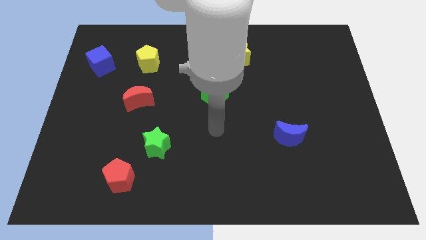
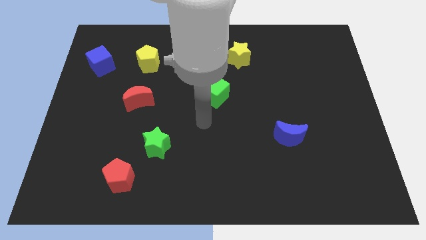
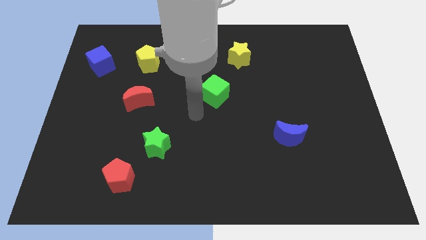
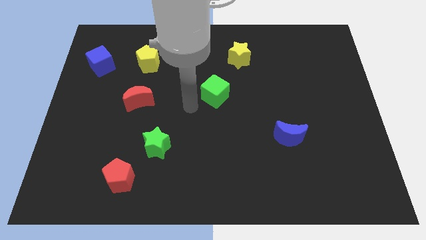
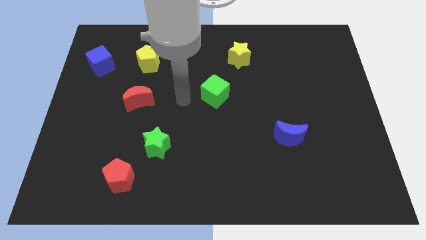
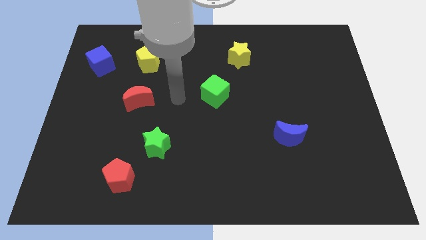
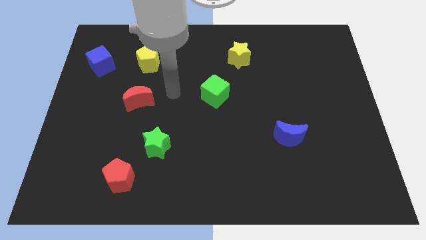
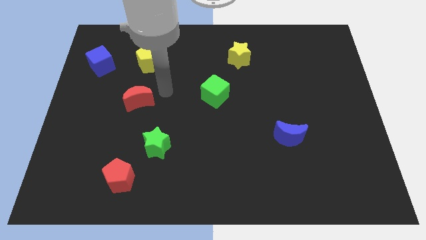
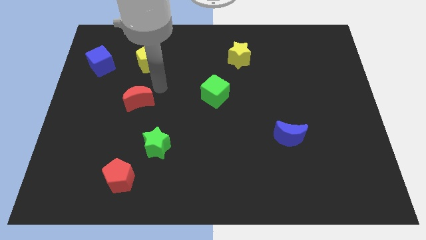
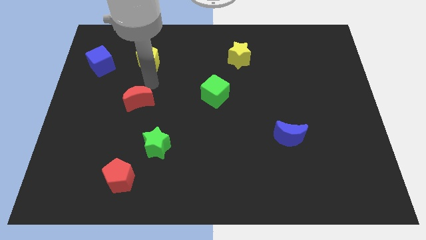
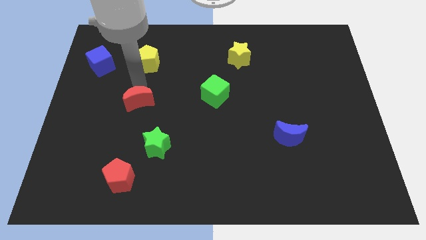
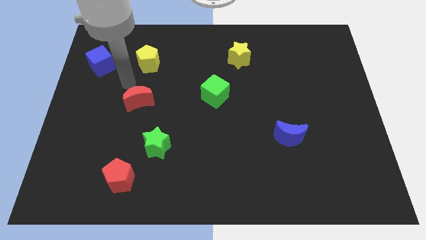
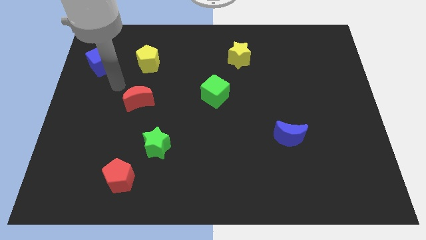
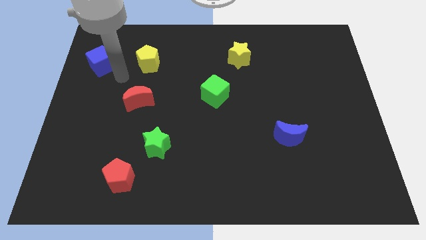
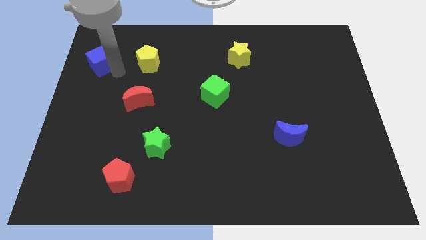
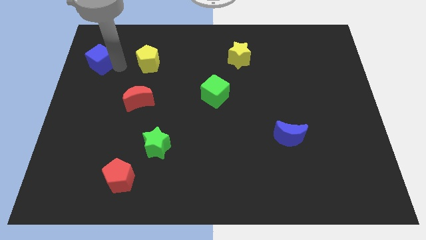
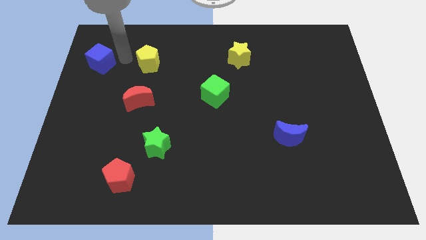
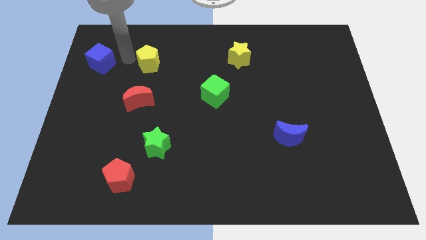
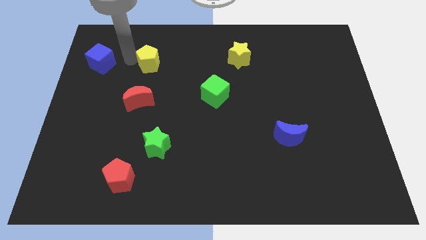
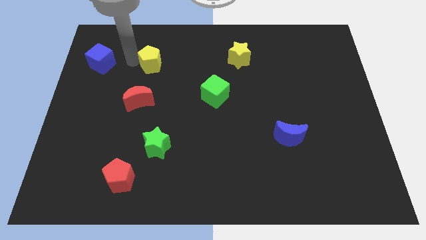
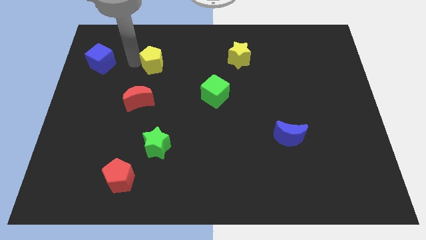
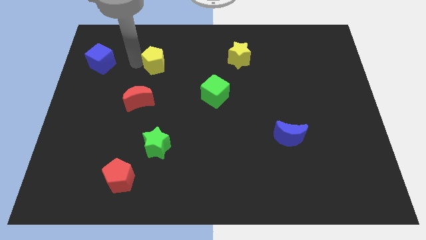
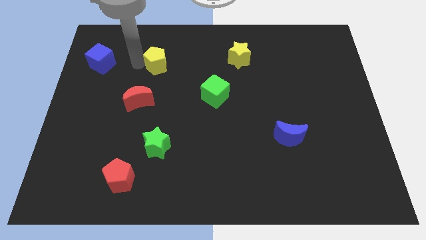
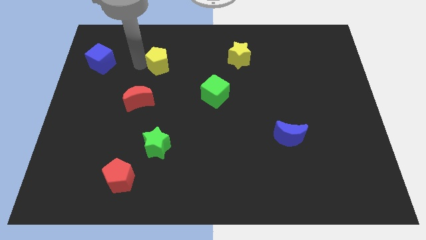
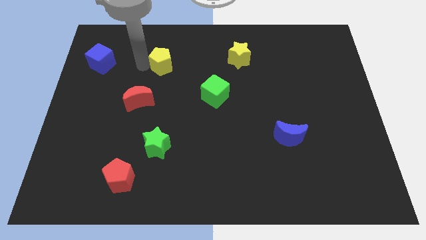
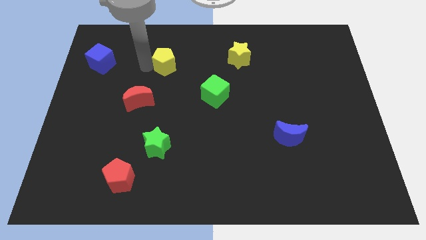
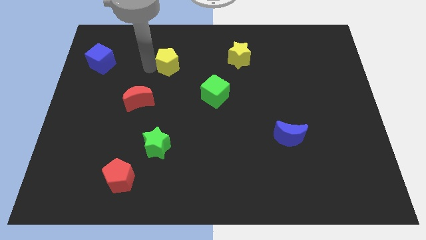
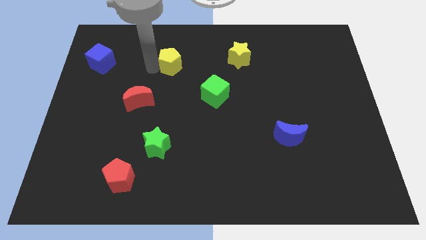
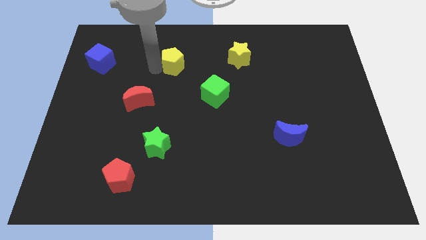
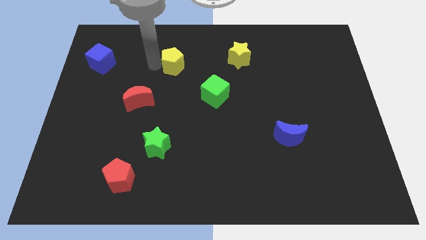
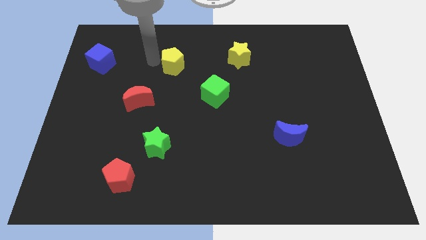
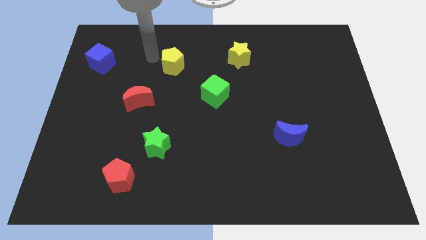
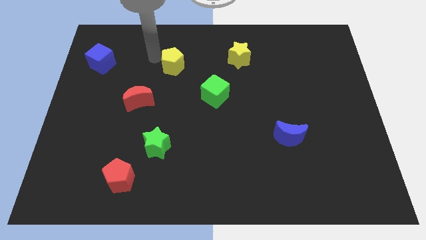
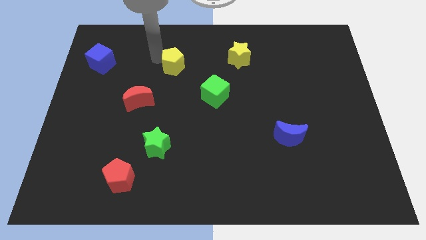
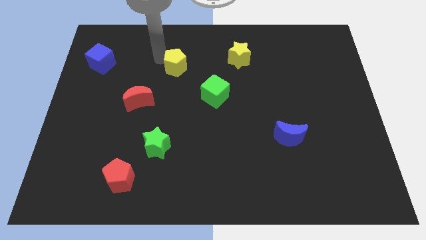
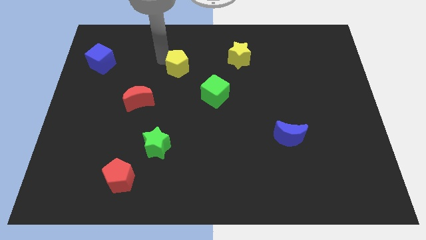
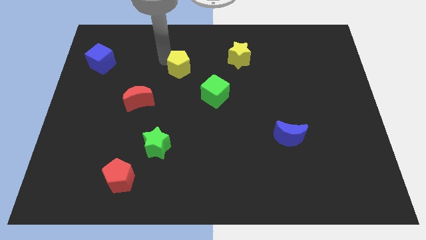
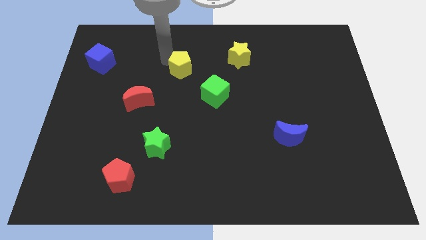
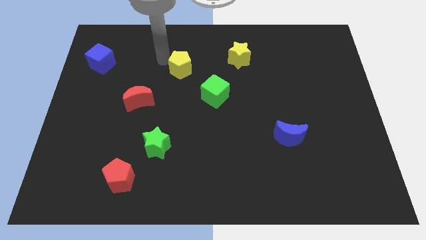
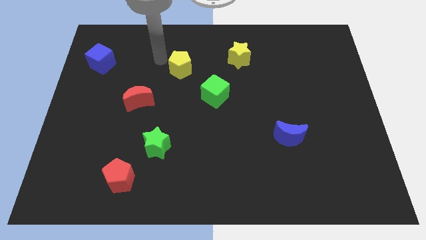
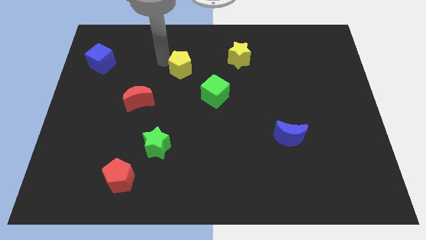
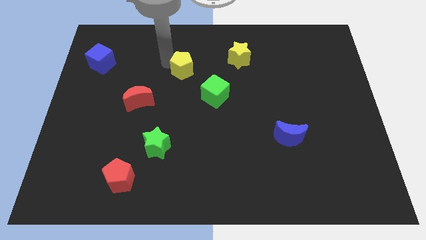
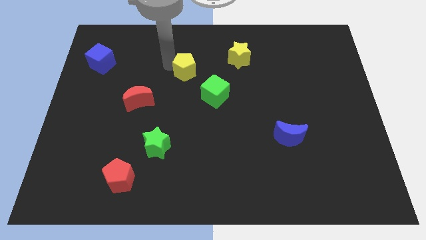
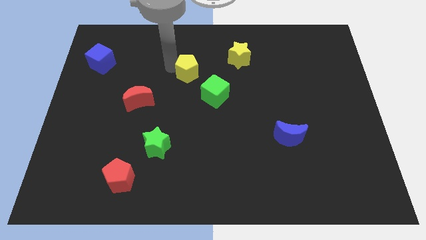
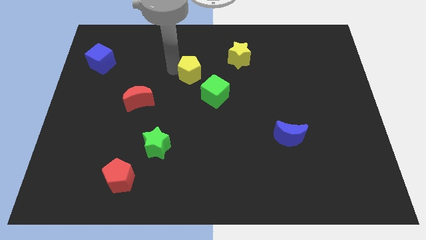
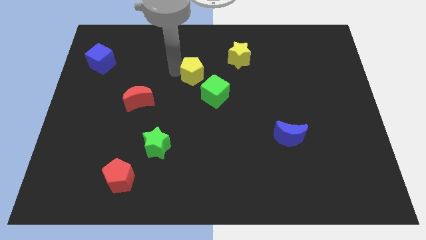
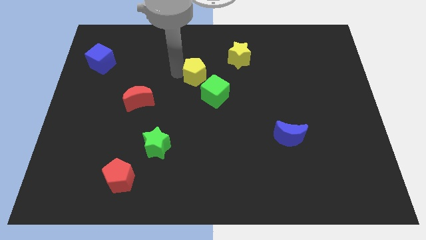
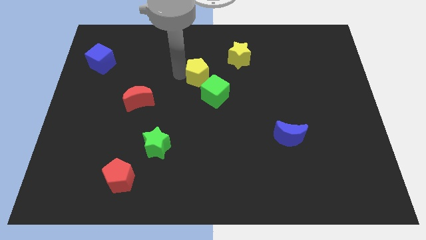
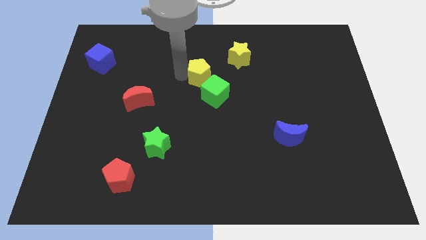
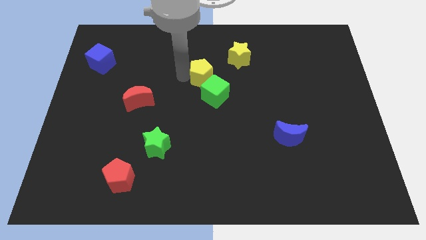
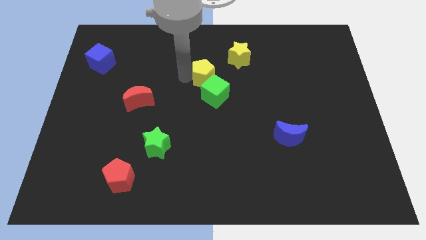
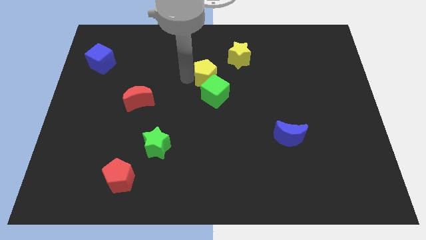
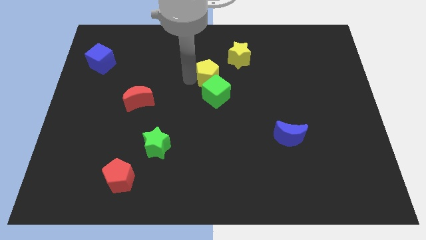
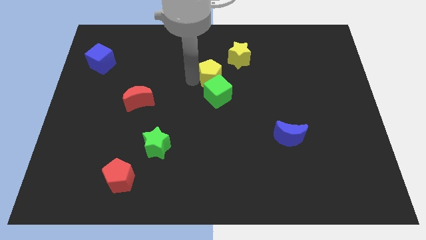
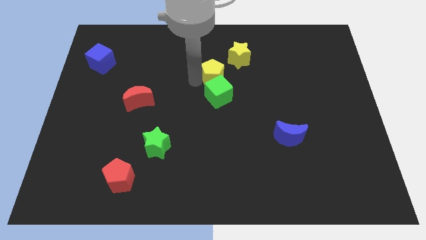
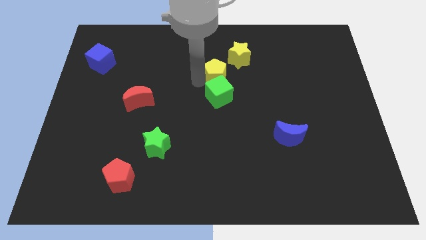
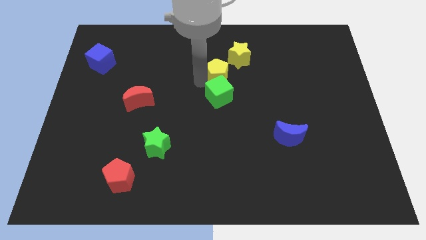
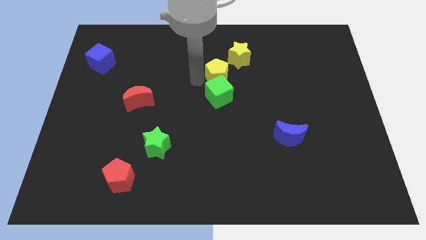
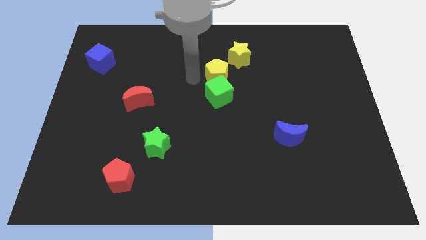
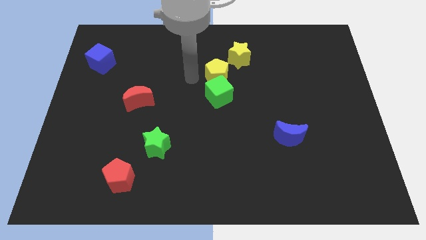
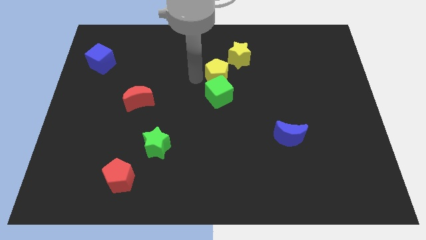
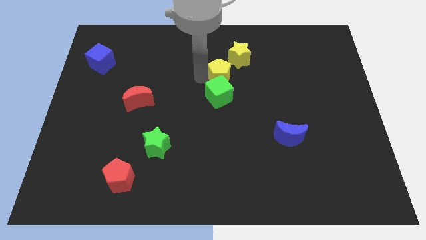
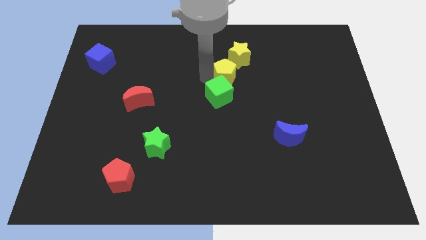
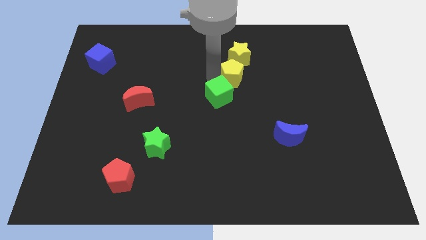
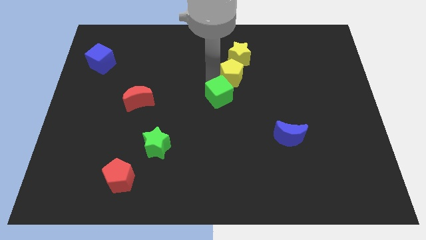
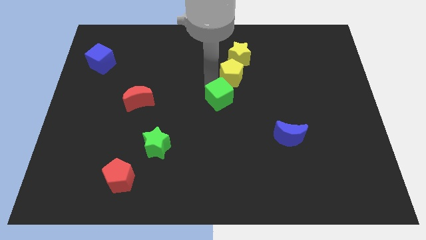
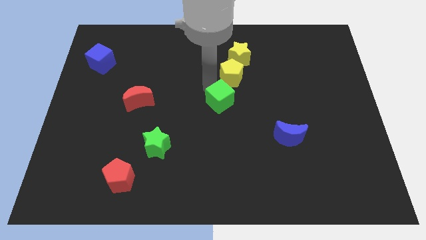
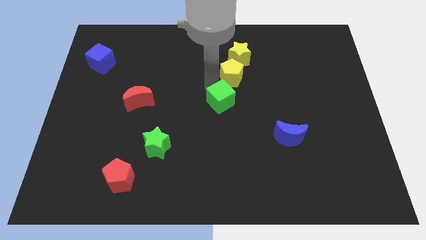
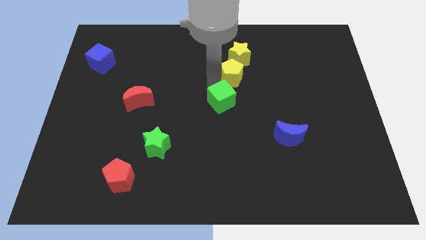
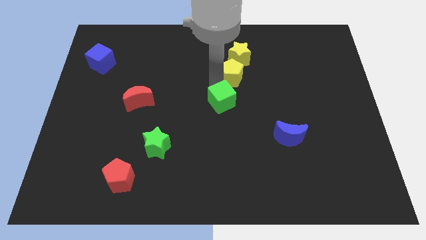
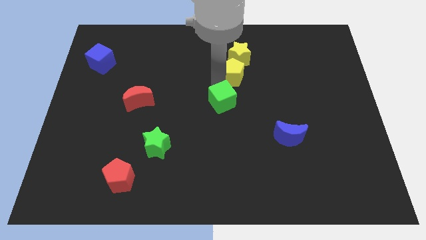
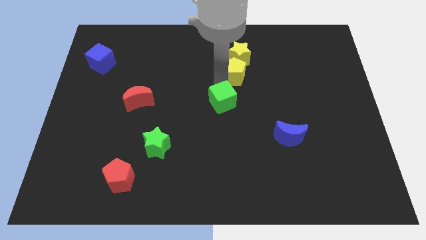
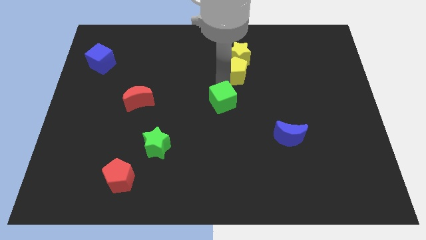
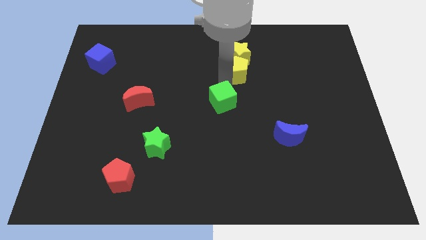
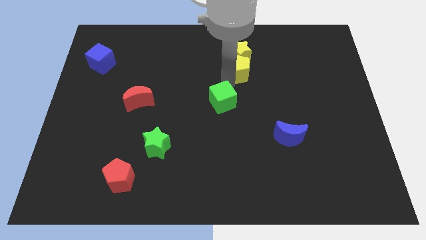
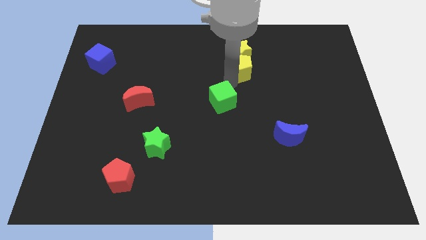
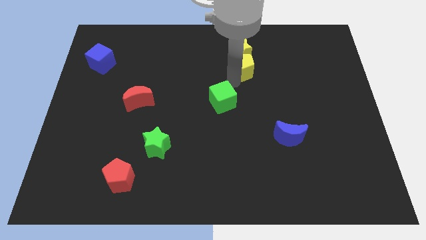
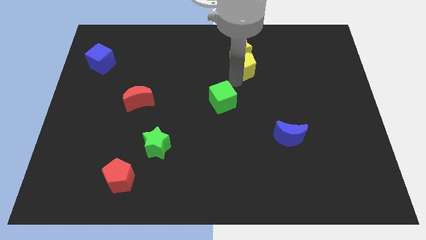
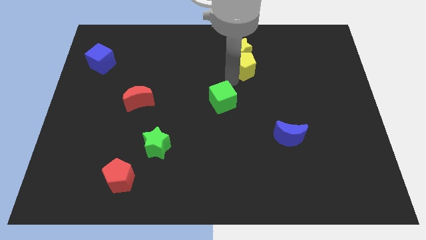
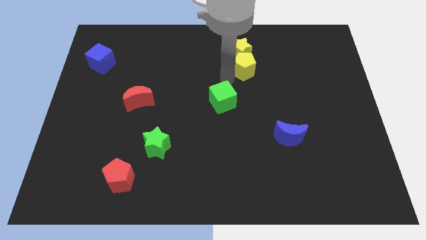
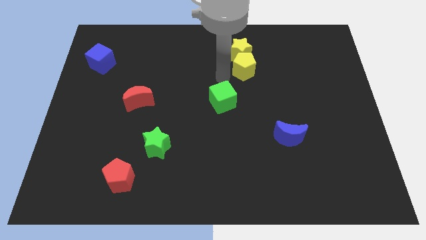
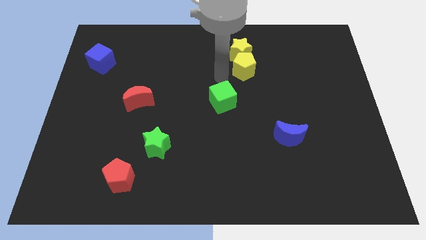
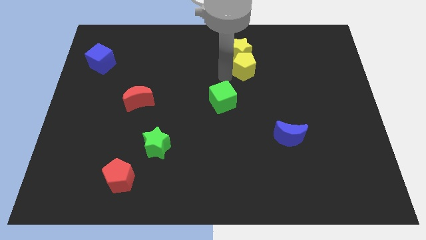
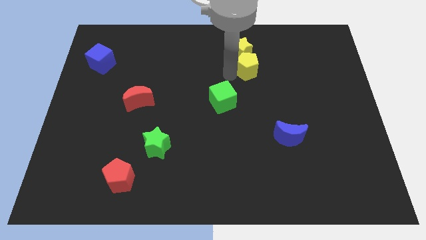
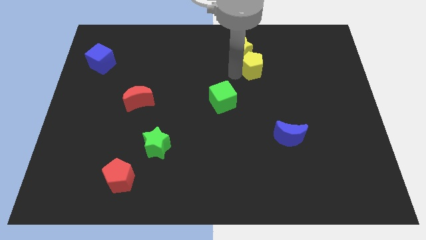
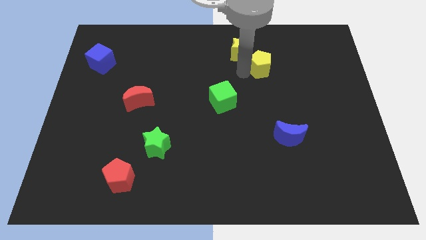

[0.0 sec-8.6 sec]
put the yellow pentagon to the right of the yellow star
